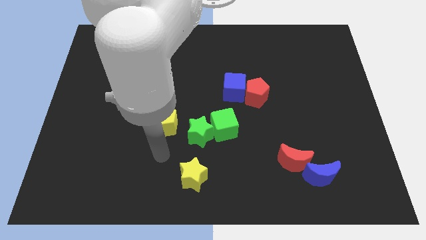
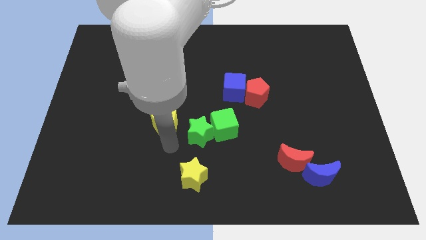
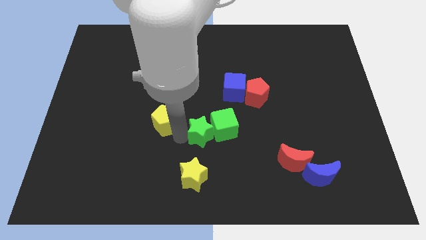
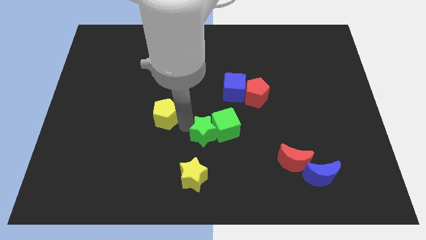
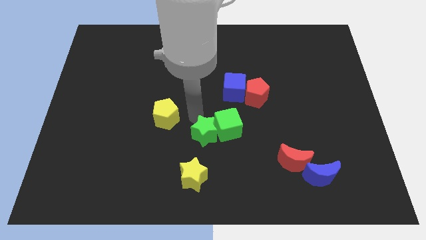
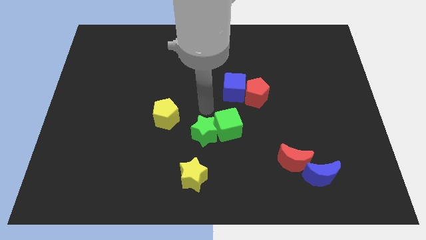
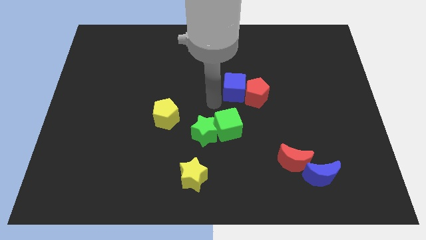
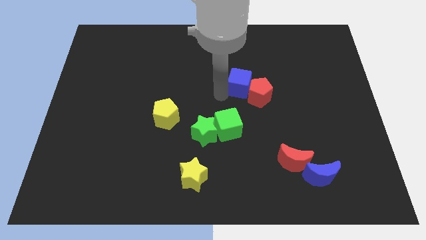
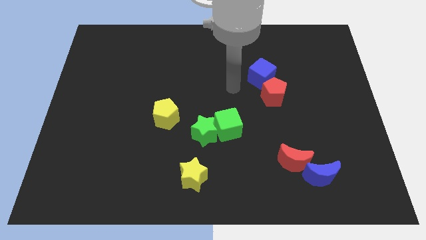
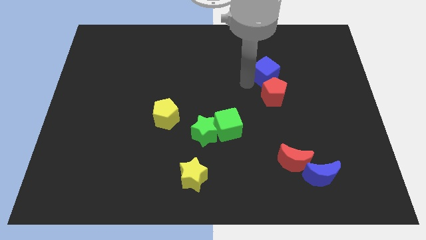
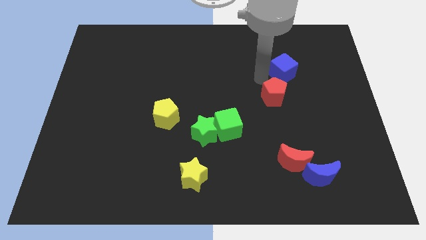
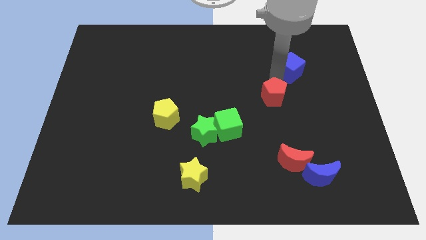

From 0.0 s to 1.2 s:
pull the red pentagon apart from the blue cube

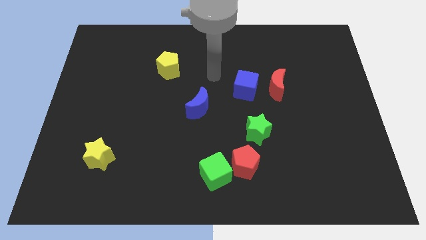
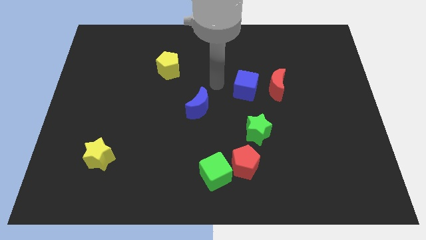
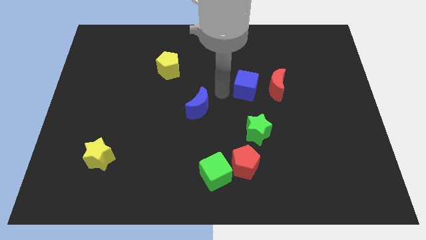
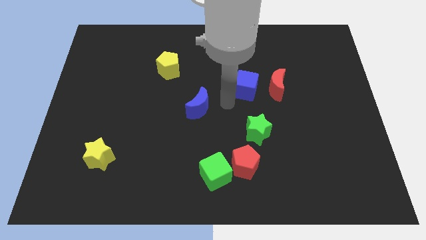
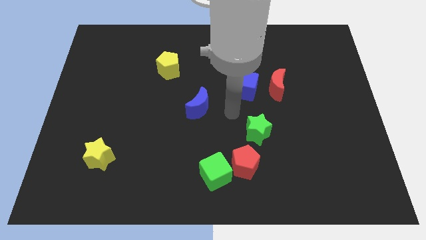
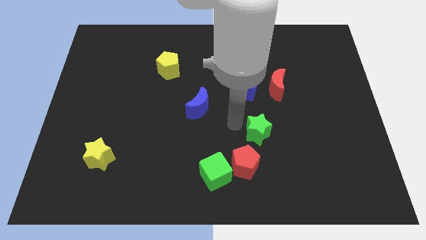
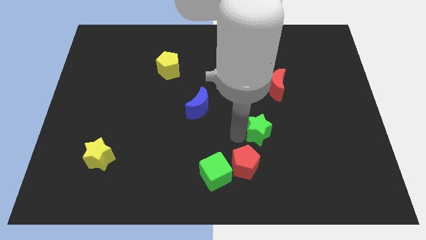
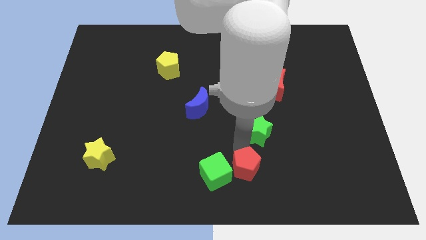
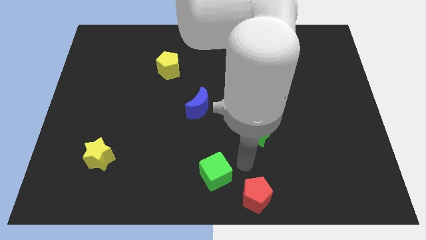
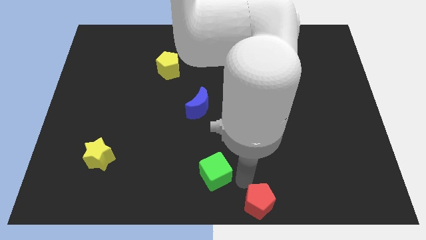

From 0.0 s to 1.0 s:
move the green cube away from the red pentagon

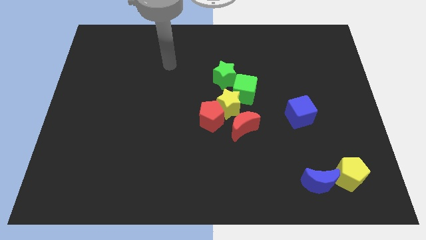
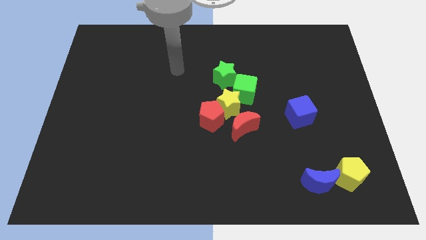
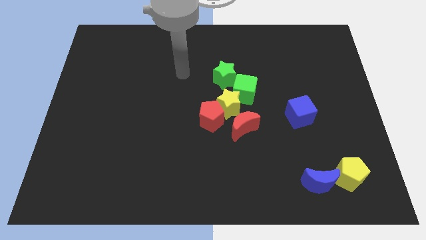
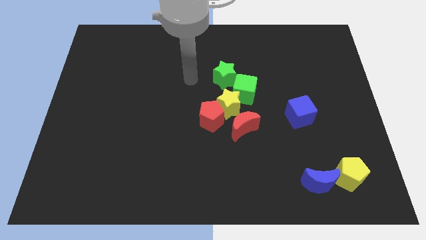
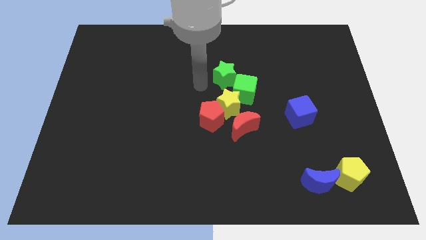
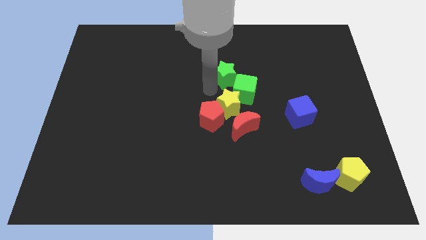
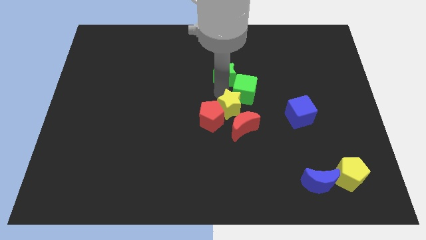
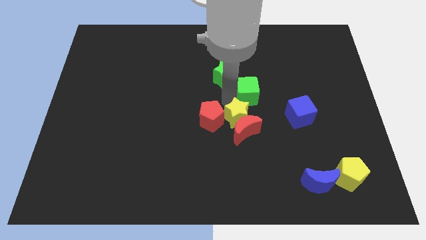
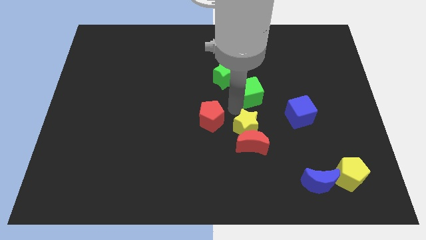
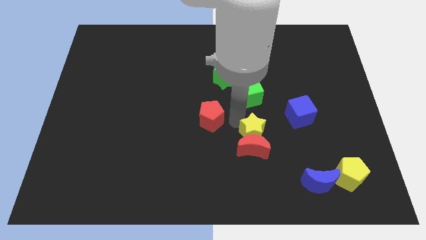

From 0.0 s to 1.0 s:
move the red pentagon away from the yellow star and red moon

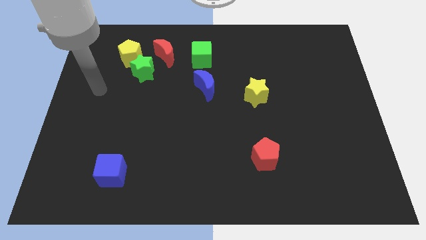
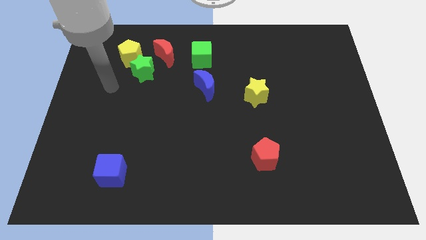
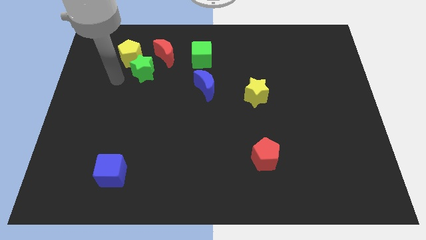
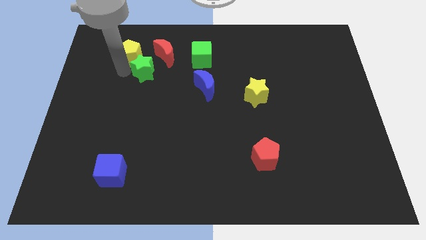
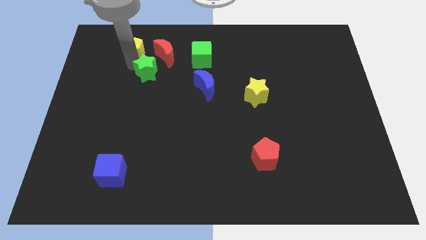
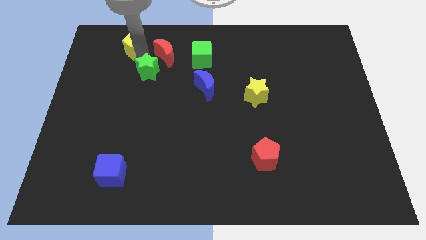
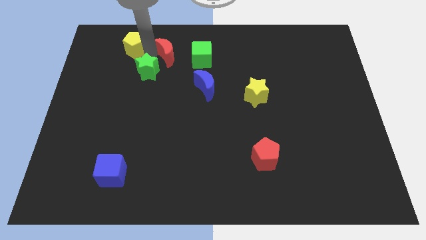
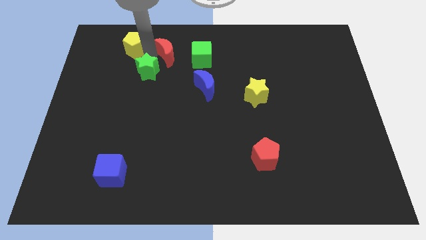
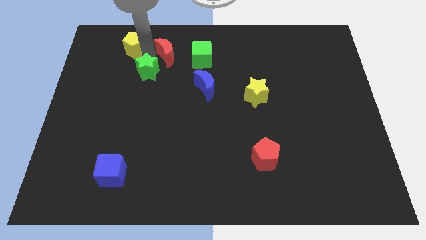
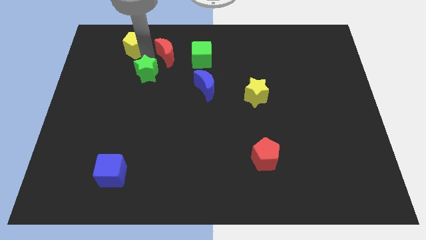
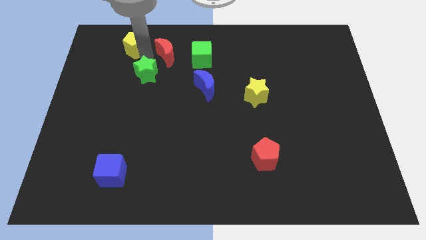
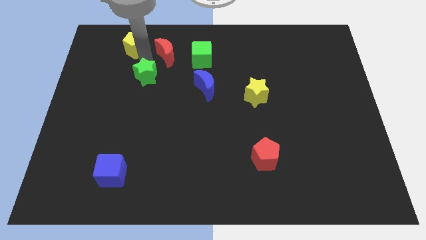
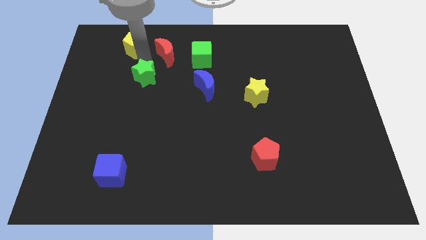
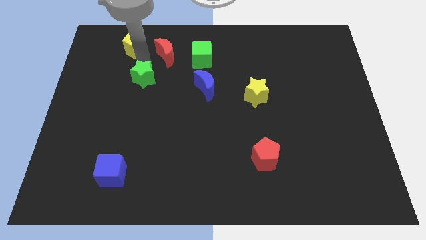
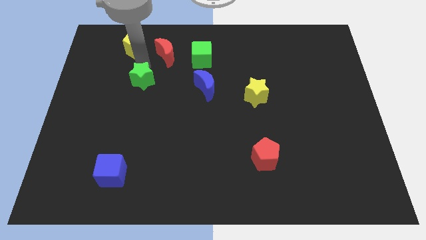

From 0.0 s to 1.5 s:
pull the green star apart from the yellow pentagon and red moon

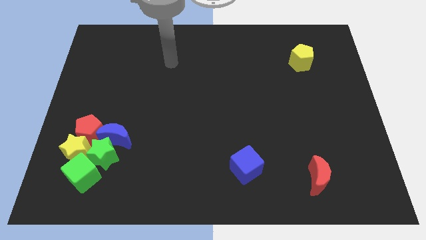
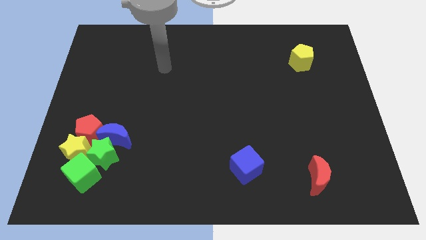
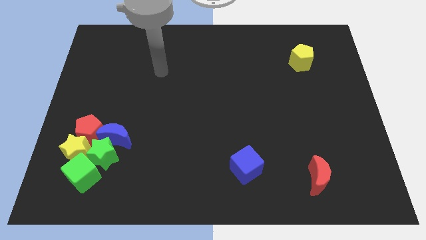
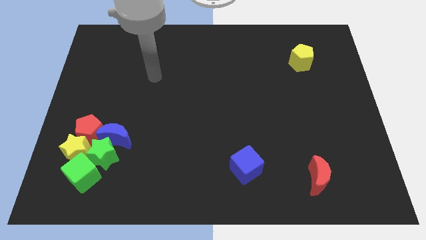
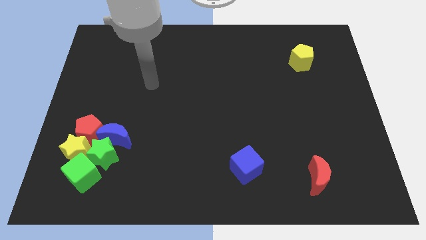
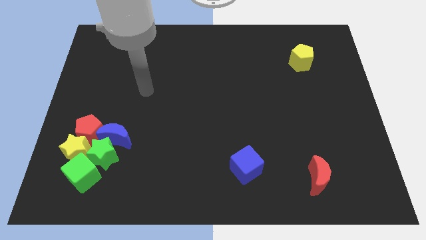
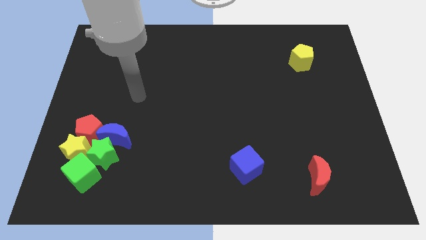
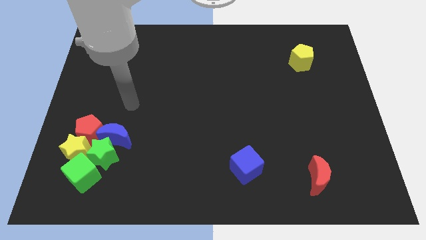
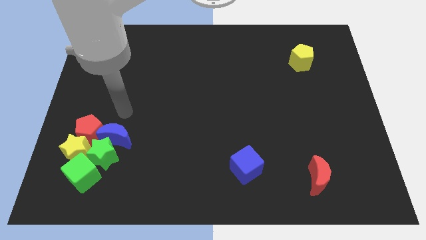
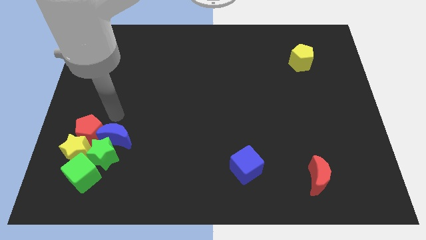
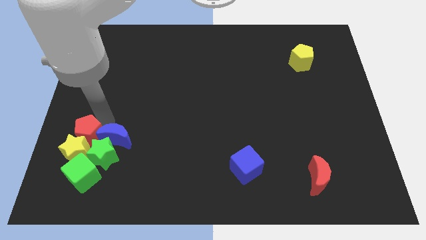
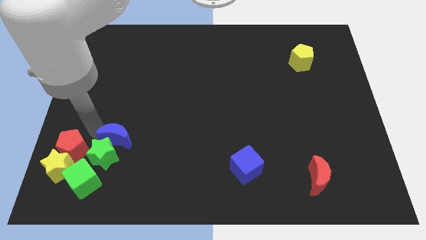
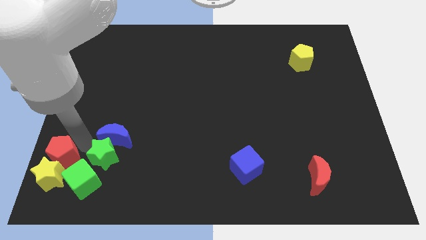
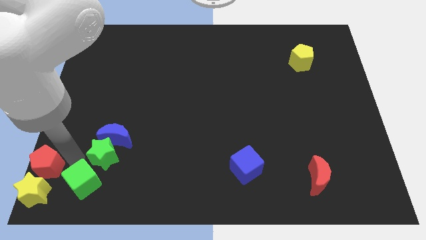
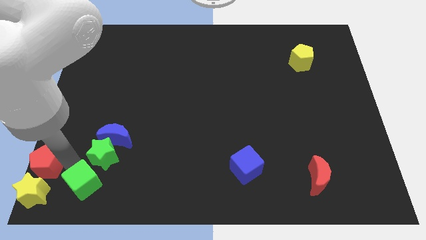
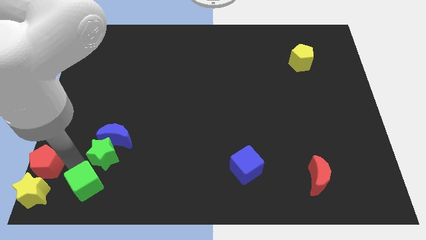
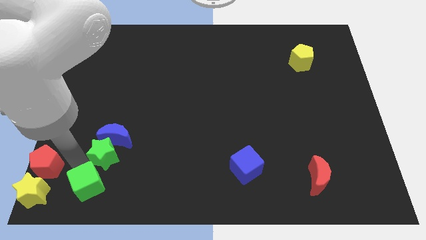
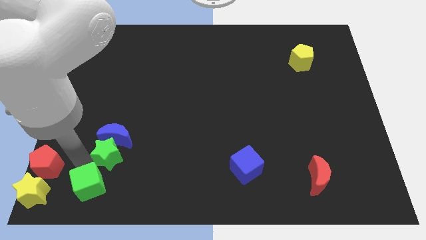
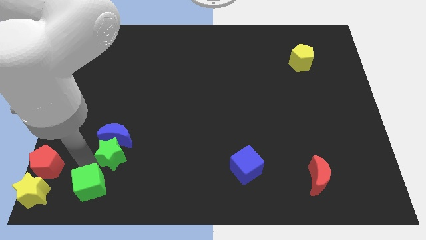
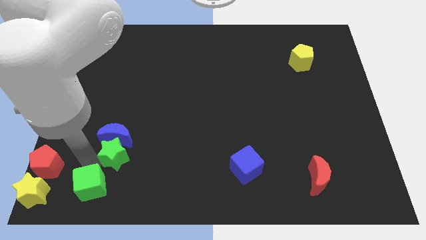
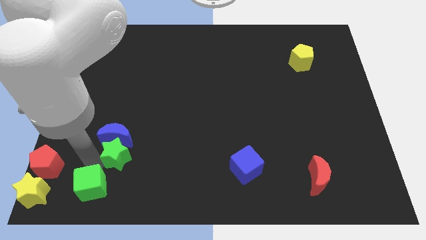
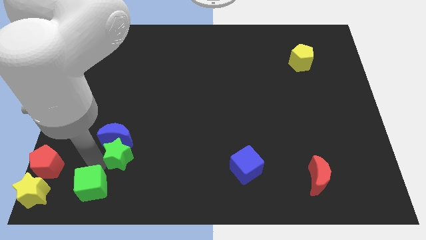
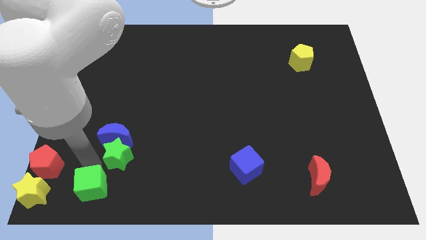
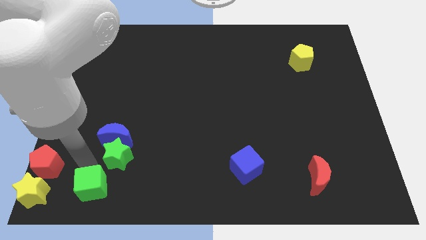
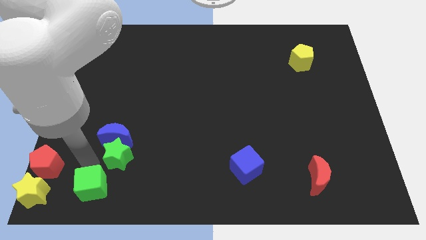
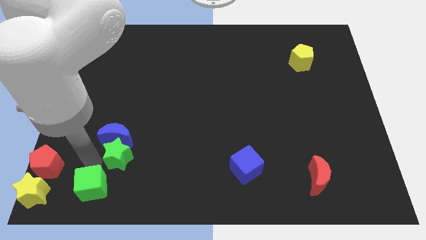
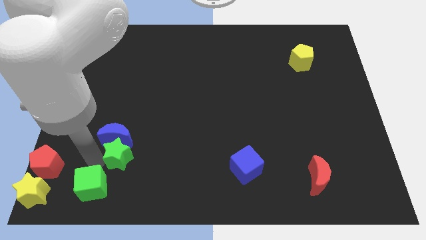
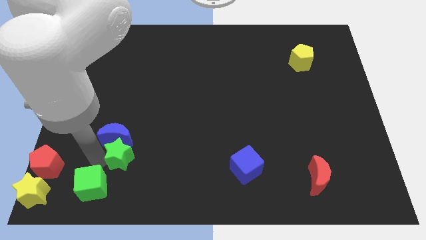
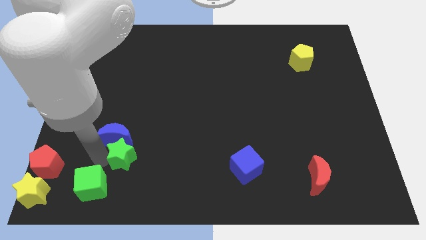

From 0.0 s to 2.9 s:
move the green star away from the group of blocks

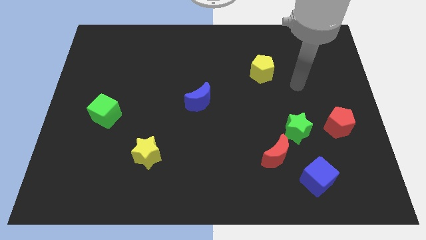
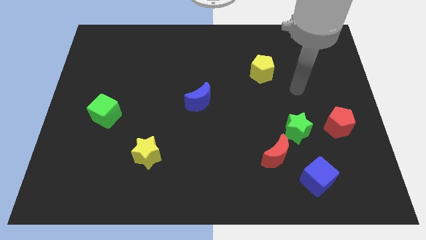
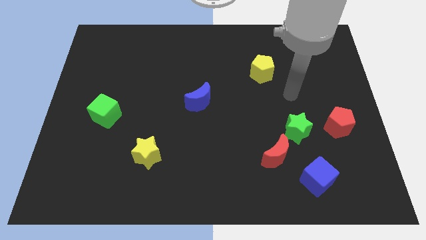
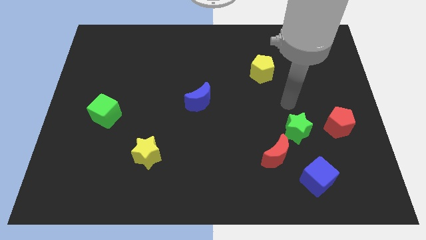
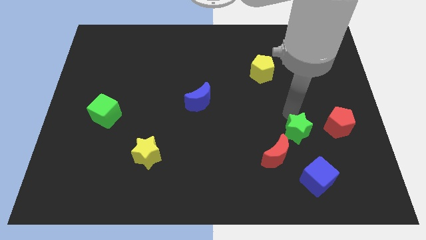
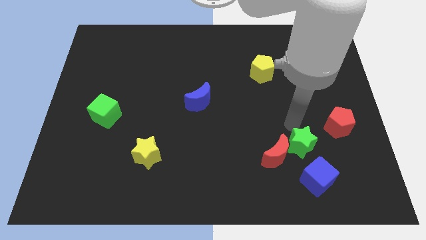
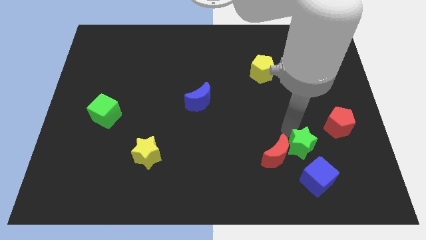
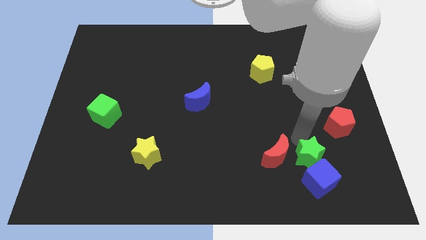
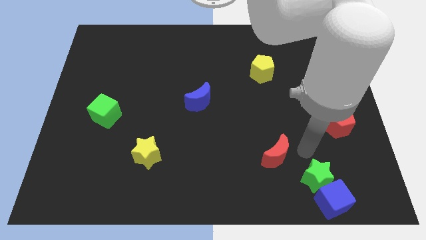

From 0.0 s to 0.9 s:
separate the red moon from the green star and blue cube

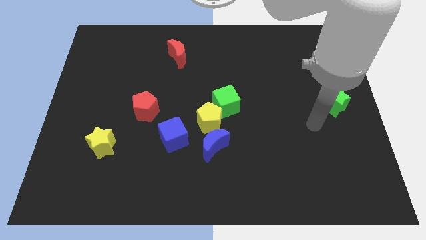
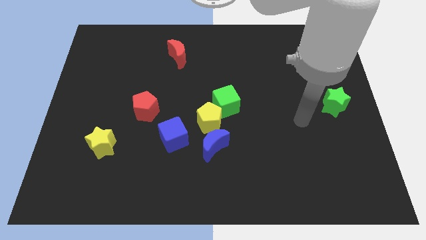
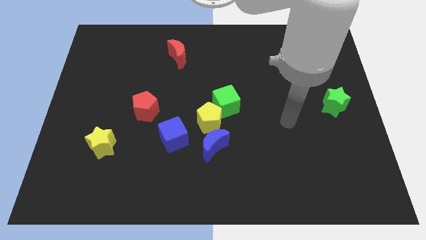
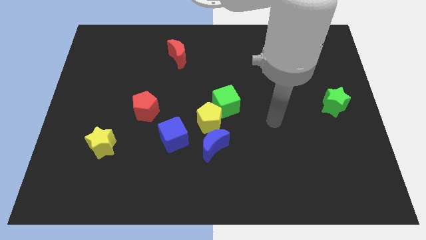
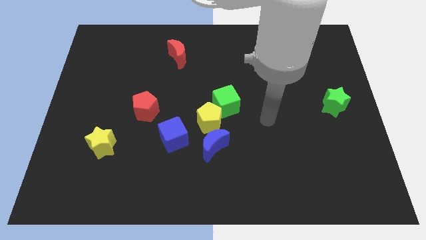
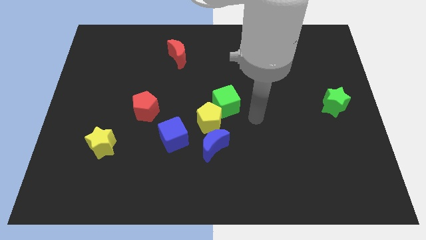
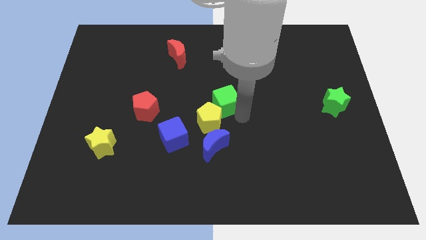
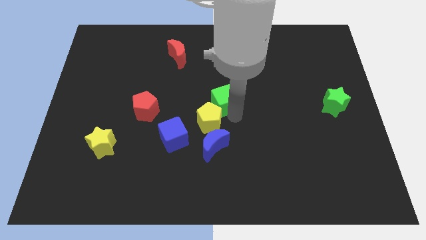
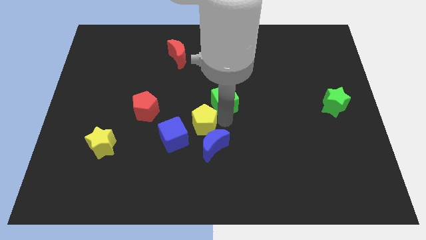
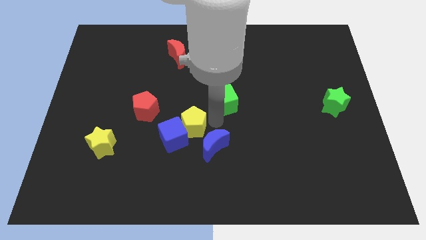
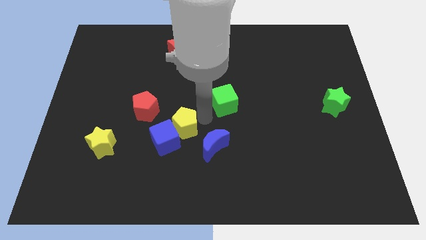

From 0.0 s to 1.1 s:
separate the green cube from the yellow pentagon
